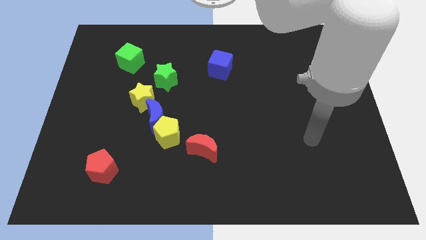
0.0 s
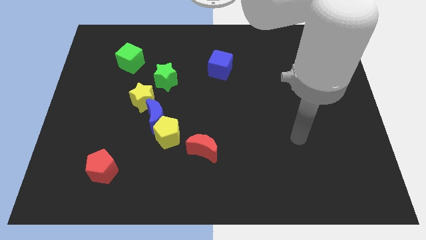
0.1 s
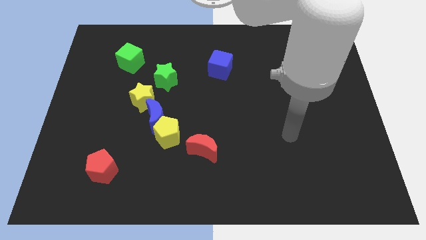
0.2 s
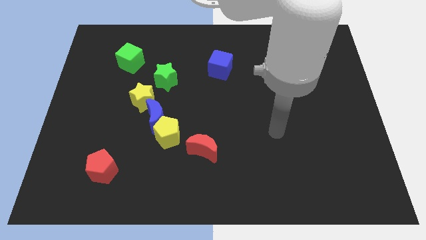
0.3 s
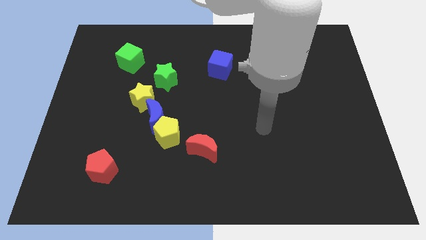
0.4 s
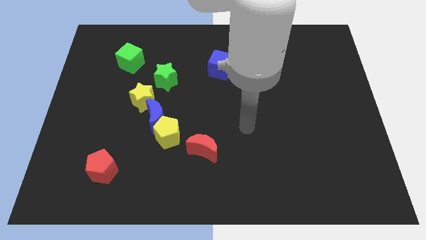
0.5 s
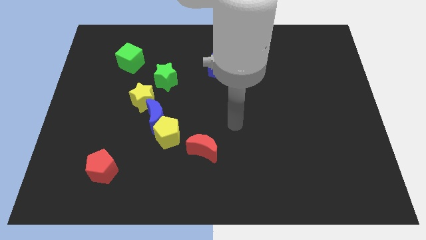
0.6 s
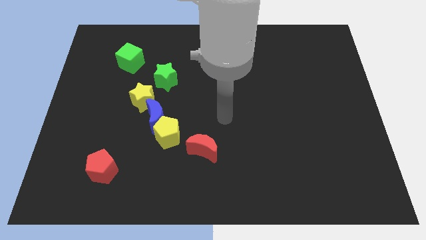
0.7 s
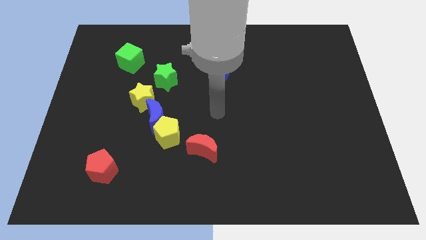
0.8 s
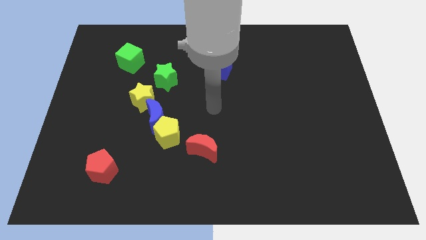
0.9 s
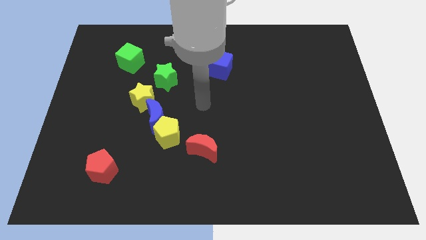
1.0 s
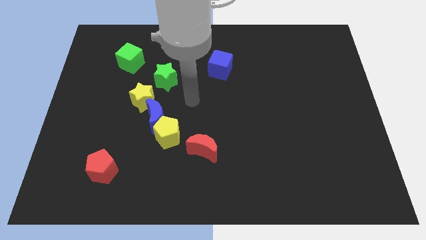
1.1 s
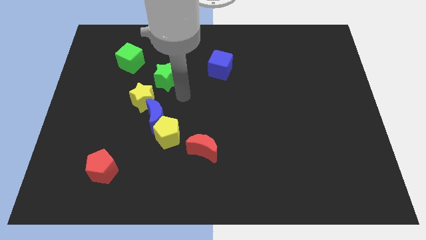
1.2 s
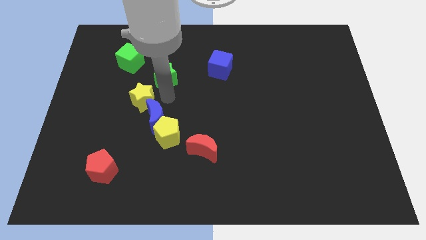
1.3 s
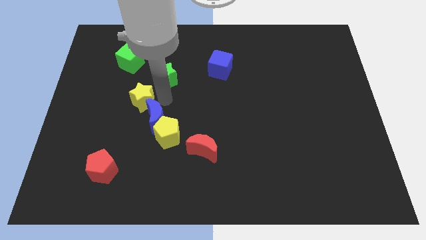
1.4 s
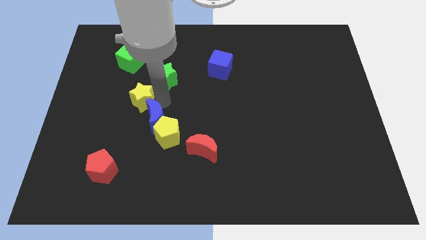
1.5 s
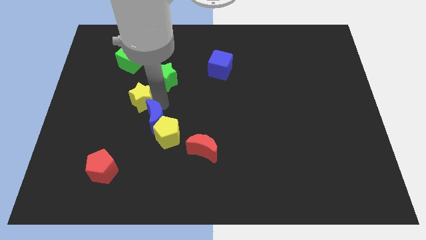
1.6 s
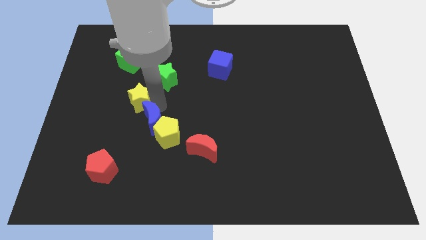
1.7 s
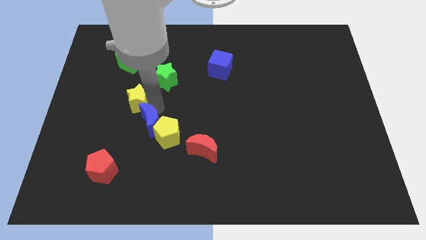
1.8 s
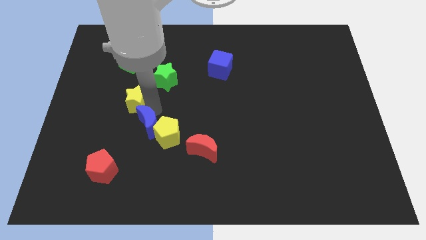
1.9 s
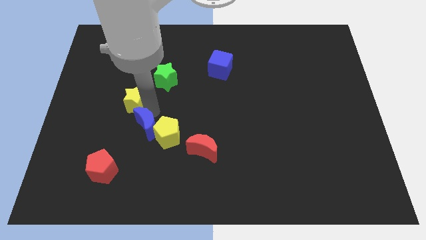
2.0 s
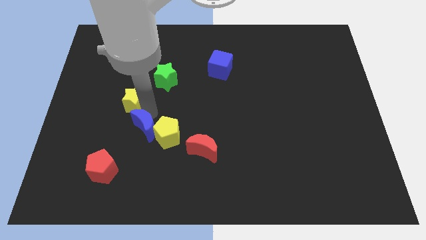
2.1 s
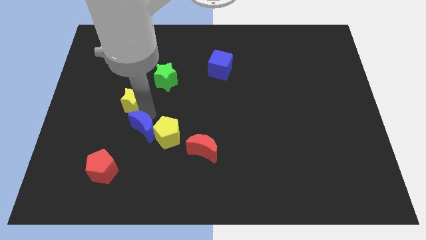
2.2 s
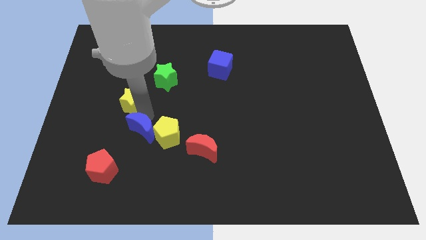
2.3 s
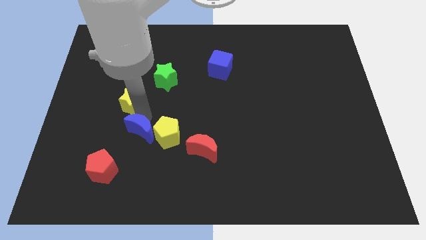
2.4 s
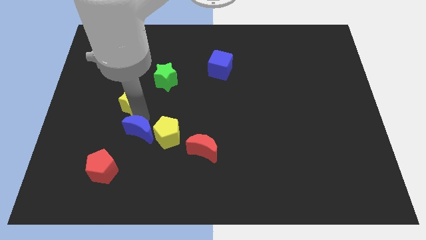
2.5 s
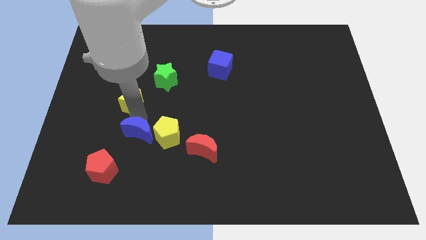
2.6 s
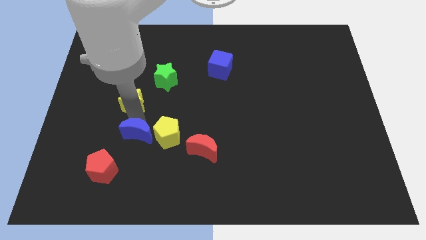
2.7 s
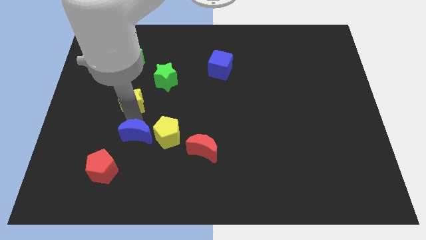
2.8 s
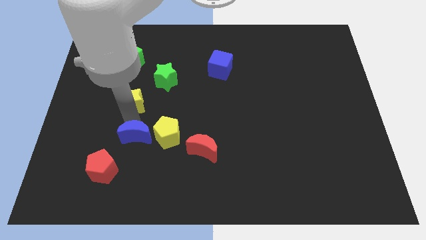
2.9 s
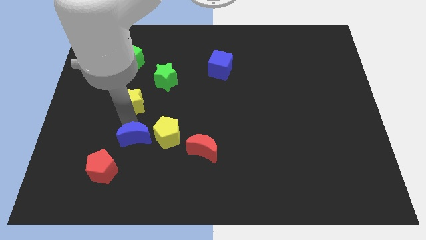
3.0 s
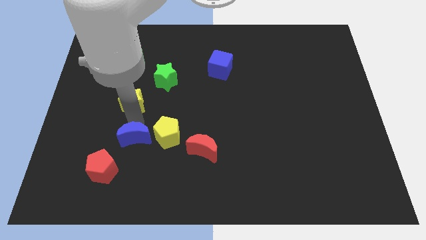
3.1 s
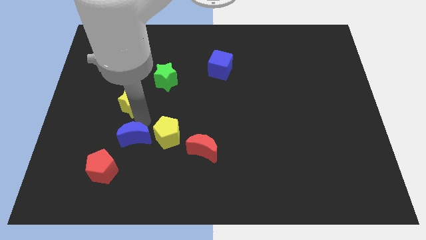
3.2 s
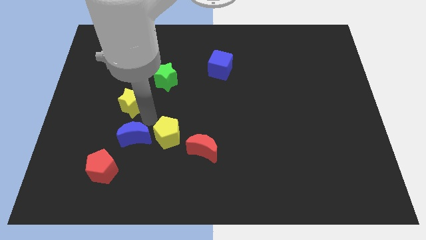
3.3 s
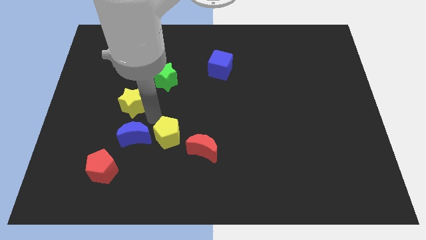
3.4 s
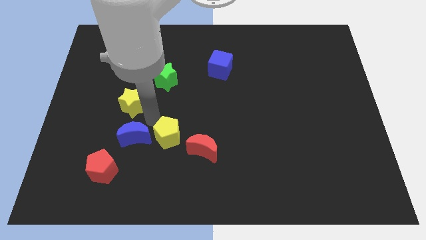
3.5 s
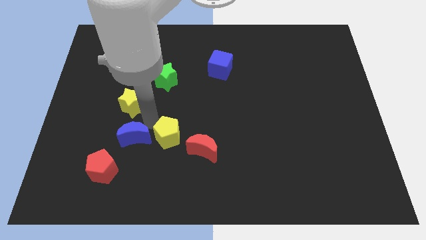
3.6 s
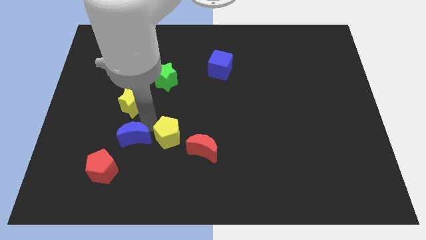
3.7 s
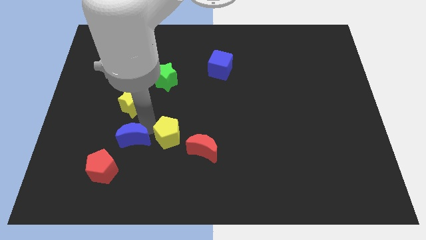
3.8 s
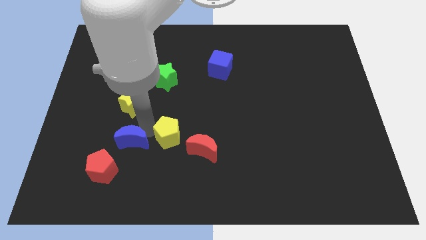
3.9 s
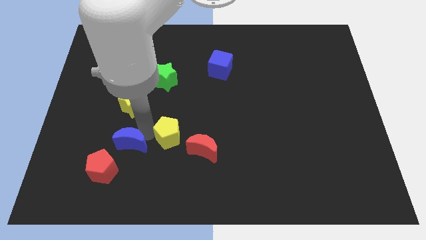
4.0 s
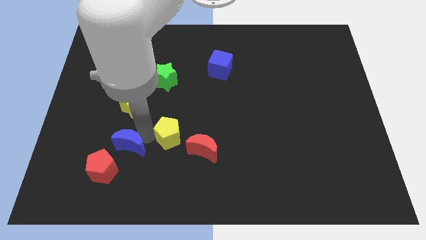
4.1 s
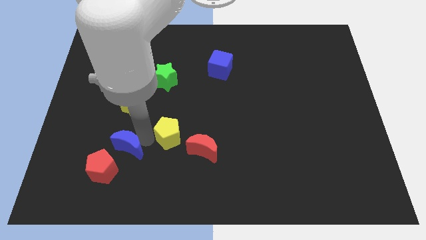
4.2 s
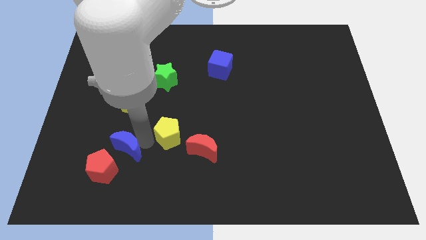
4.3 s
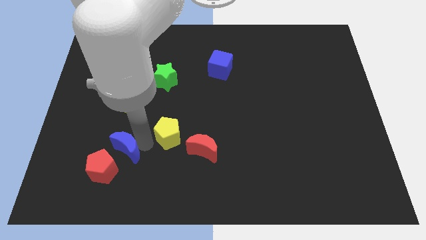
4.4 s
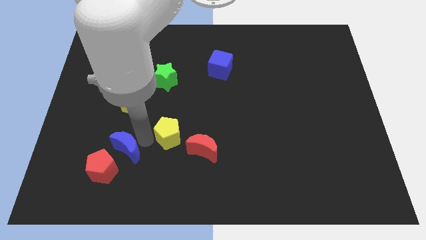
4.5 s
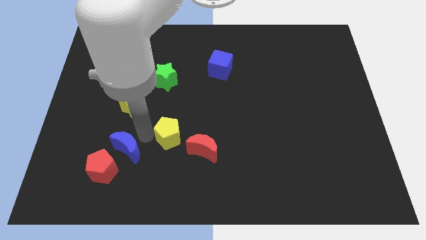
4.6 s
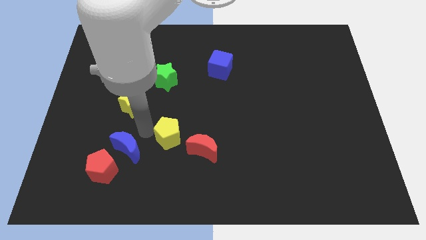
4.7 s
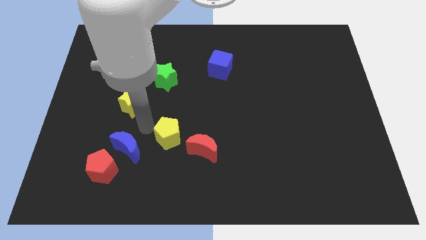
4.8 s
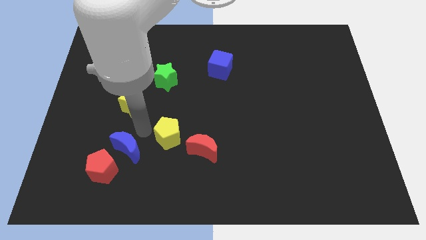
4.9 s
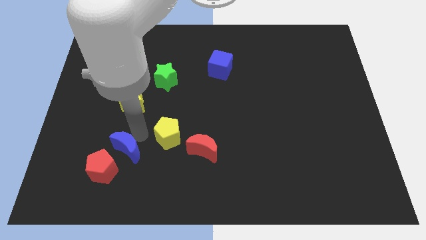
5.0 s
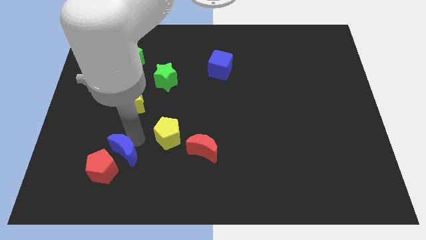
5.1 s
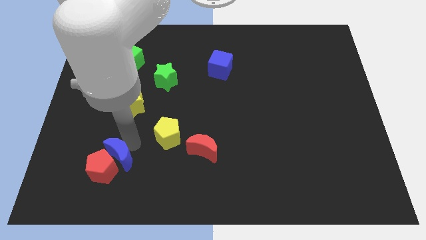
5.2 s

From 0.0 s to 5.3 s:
separate the blue moon from the yellow pentagon and yellow star

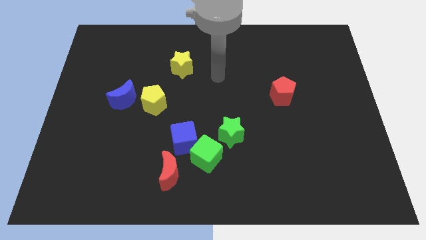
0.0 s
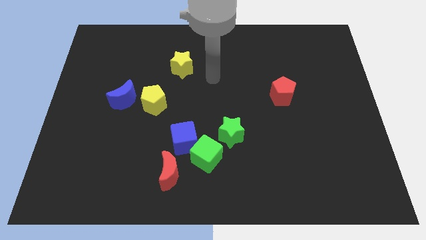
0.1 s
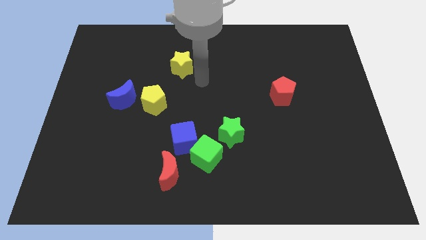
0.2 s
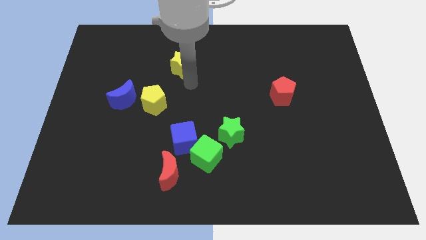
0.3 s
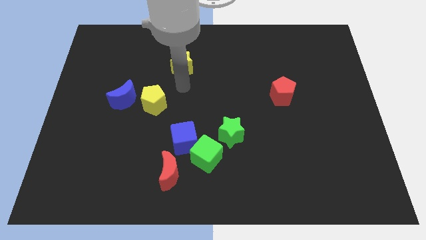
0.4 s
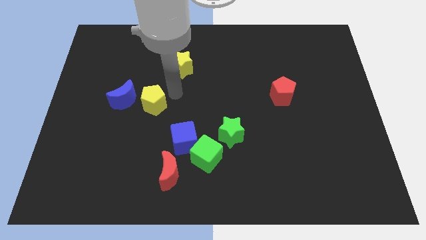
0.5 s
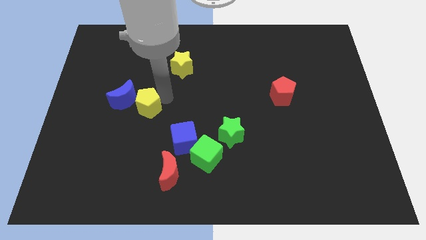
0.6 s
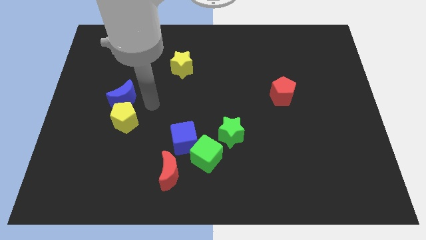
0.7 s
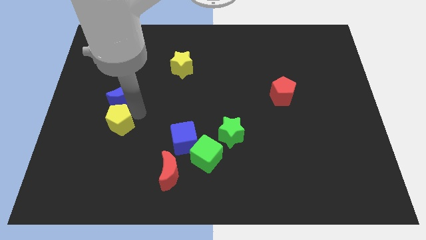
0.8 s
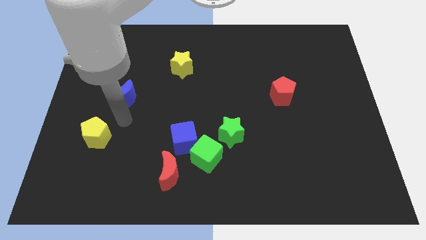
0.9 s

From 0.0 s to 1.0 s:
move the blue moon away from the yellow pentagon

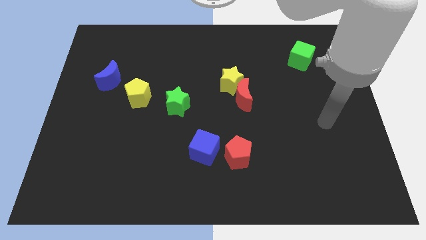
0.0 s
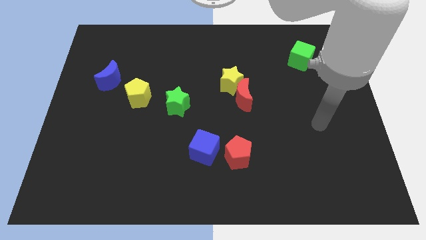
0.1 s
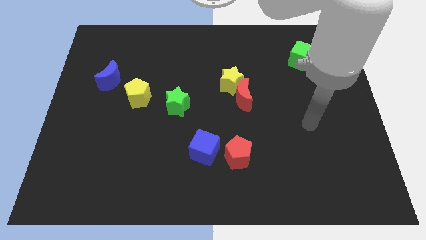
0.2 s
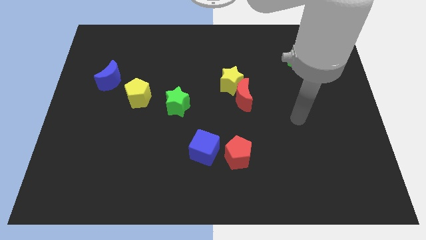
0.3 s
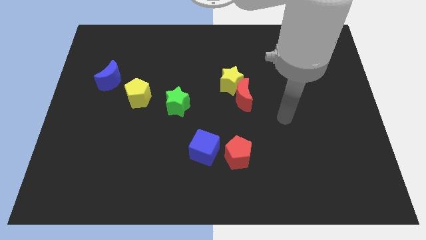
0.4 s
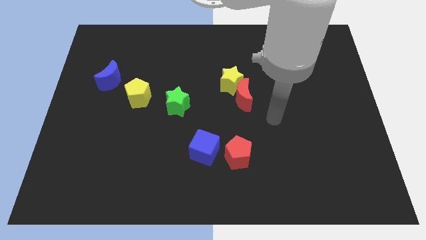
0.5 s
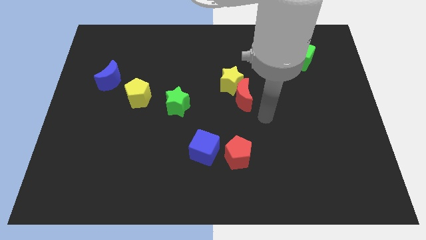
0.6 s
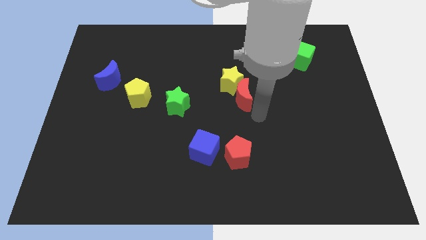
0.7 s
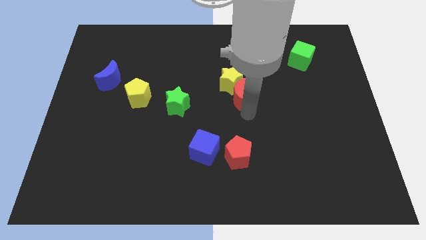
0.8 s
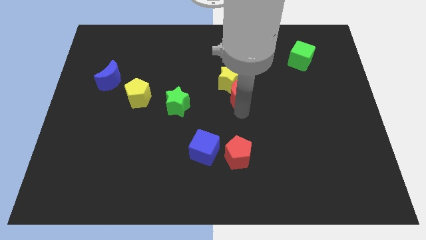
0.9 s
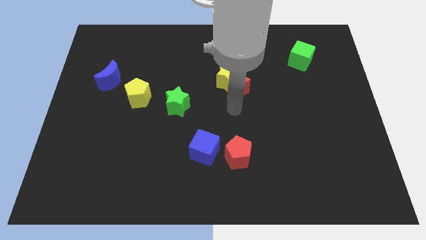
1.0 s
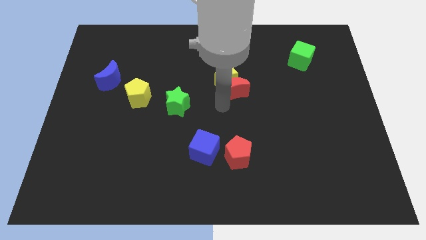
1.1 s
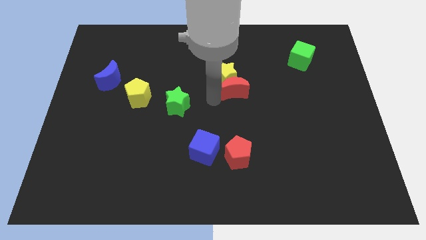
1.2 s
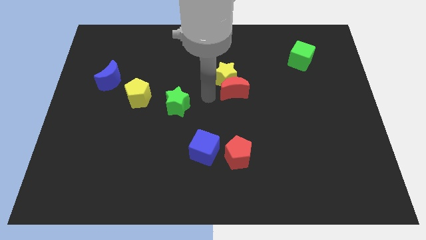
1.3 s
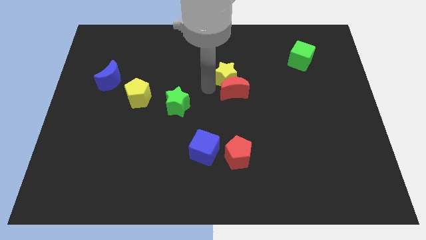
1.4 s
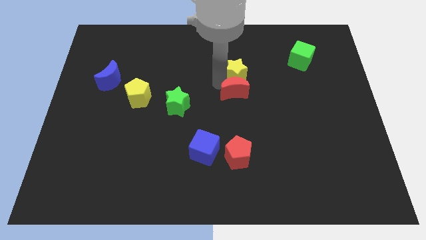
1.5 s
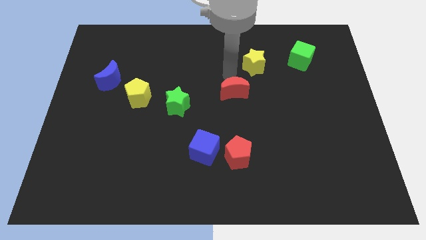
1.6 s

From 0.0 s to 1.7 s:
separate the red moon from the yellow star

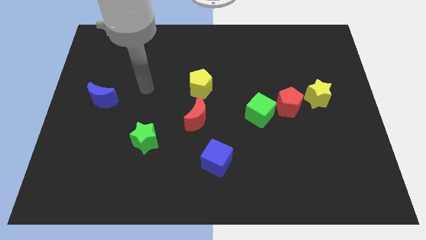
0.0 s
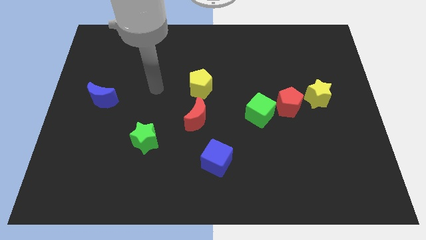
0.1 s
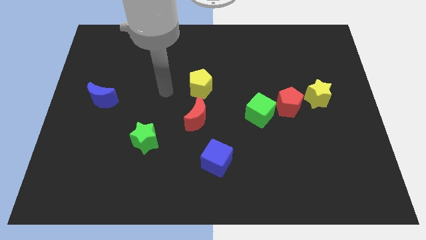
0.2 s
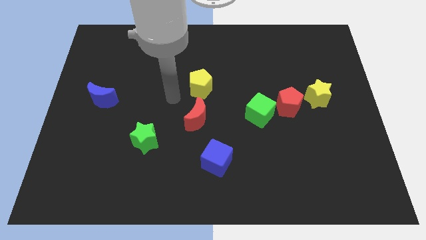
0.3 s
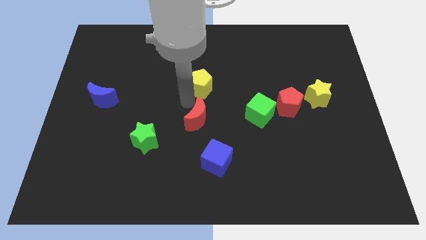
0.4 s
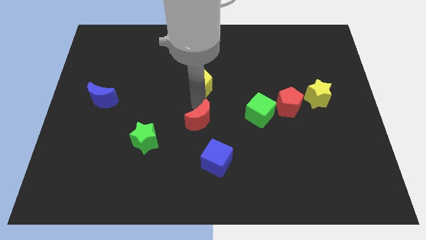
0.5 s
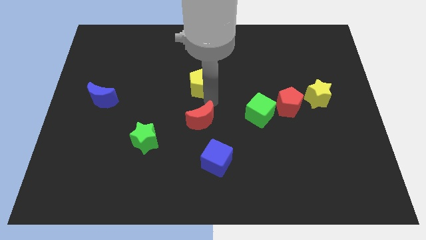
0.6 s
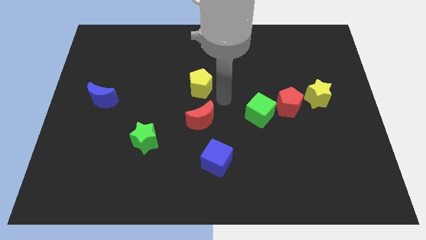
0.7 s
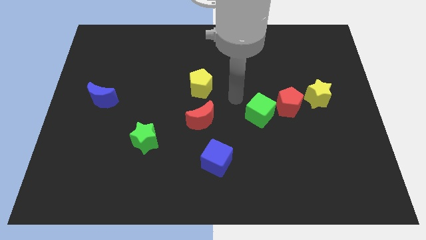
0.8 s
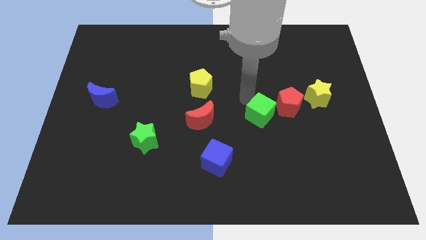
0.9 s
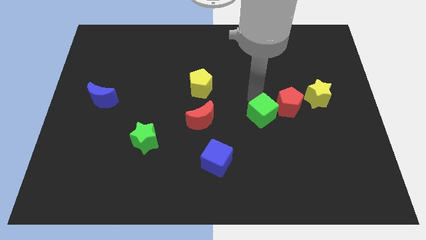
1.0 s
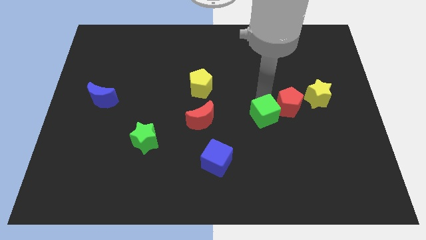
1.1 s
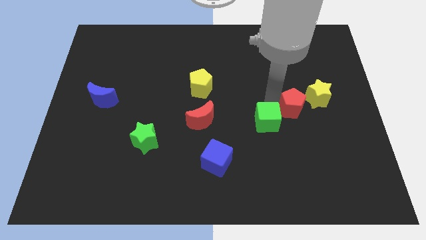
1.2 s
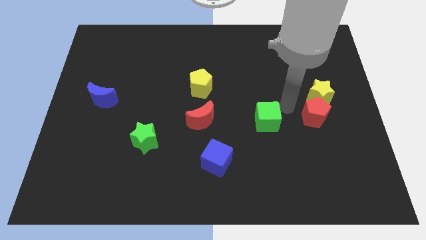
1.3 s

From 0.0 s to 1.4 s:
separate the green cube from the red pentagon

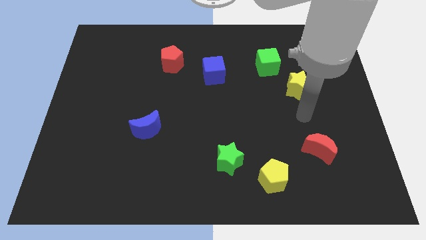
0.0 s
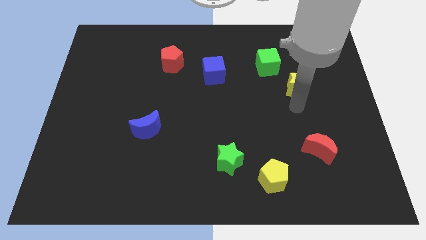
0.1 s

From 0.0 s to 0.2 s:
separate the green cube from the yellow star
